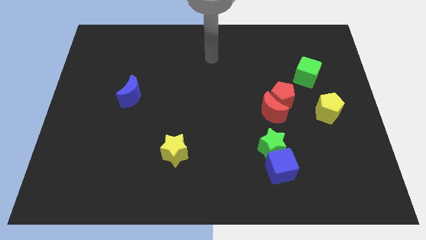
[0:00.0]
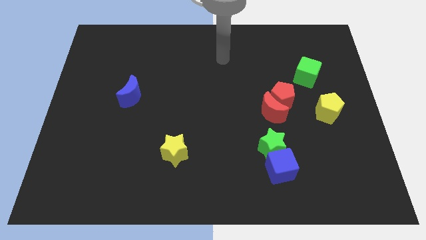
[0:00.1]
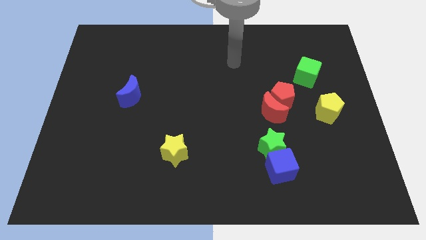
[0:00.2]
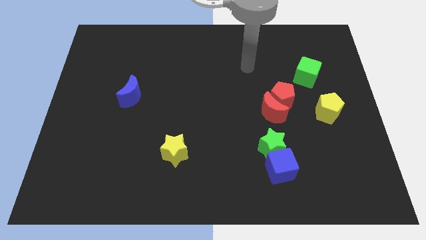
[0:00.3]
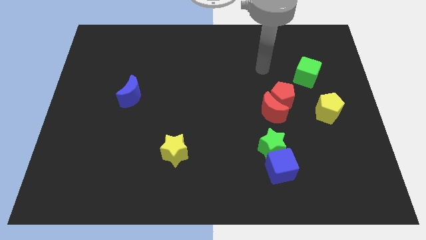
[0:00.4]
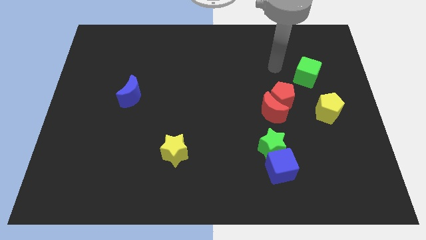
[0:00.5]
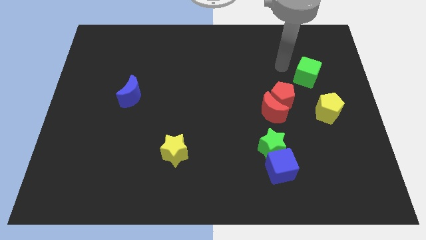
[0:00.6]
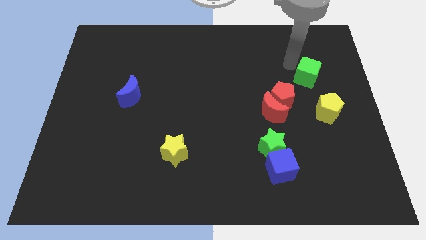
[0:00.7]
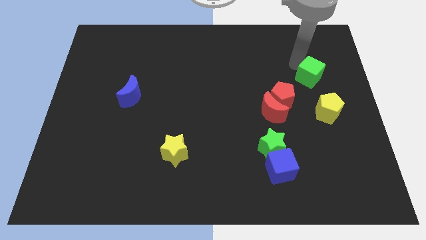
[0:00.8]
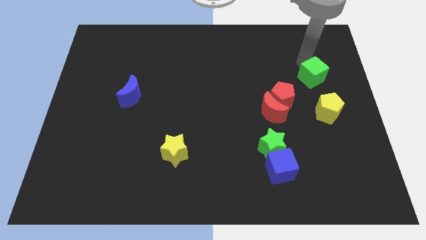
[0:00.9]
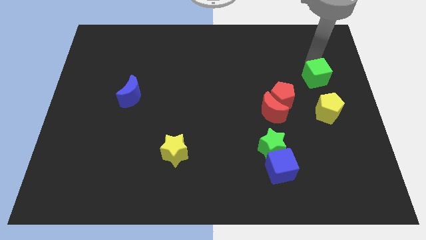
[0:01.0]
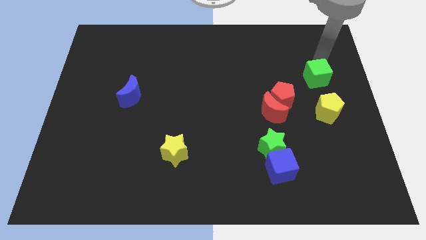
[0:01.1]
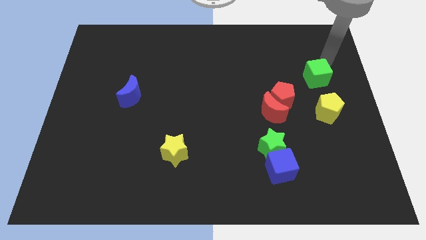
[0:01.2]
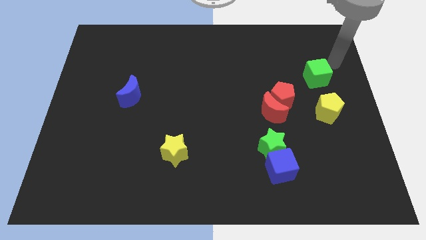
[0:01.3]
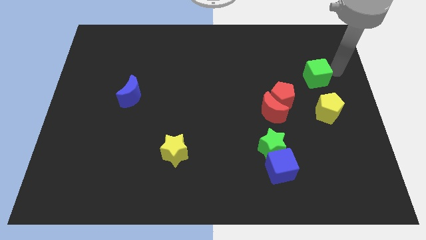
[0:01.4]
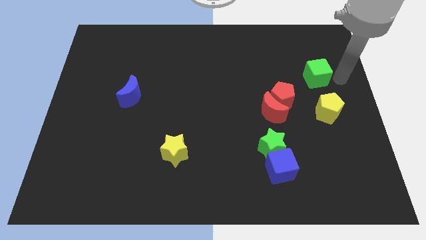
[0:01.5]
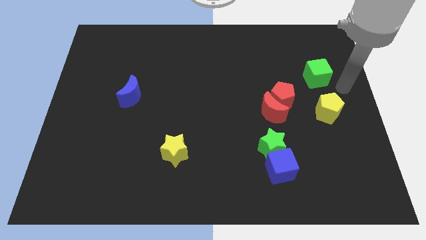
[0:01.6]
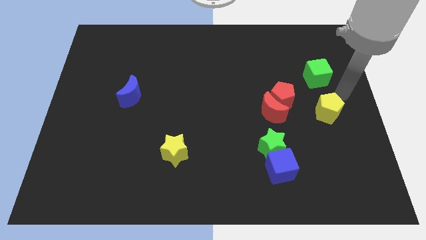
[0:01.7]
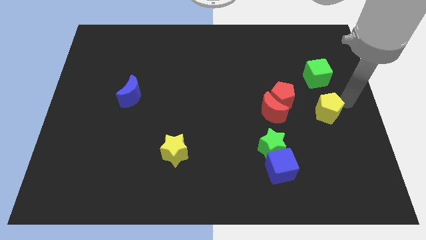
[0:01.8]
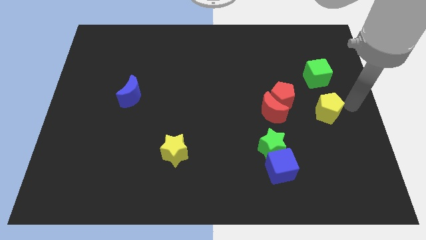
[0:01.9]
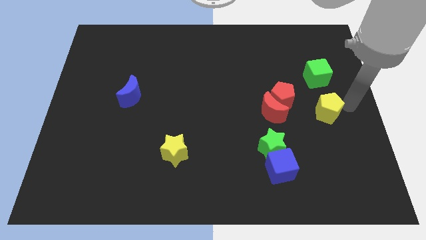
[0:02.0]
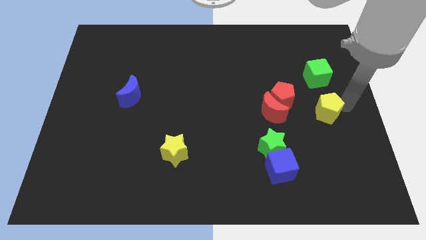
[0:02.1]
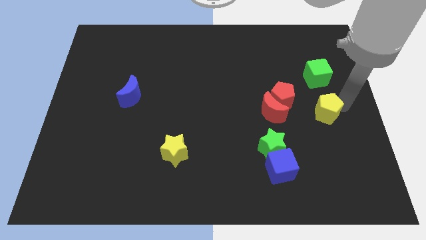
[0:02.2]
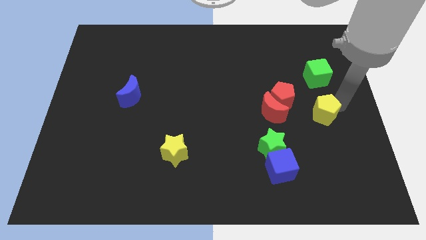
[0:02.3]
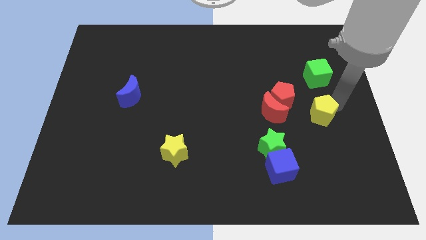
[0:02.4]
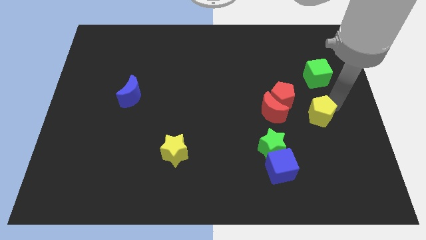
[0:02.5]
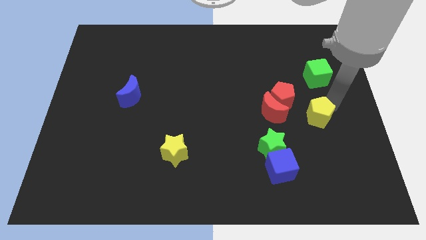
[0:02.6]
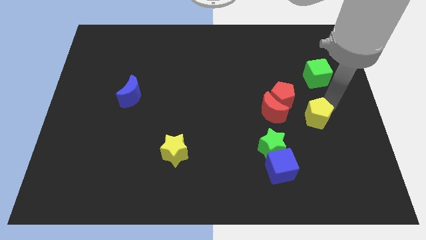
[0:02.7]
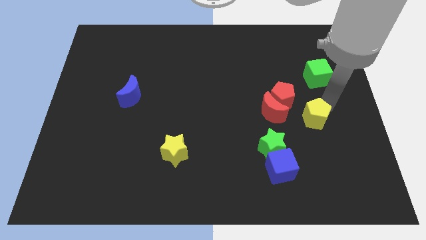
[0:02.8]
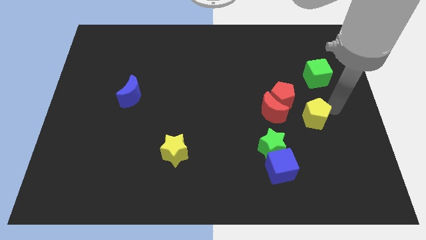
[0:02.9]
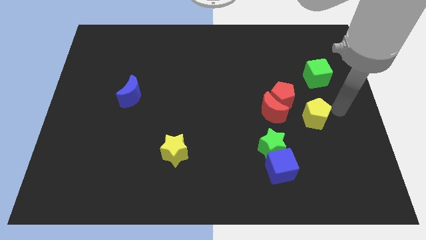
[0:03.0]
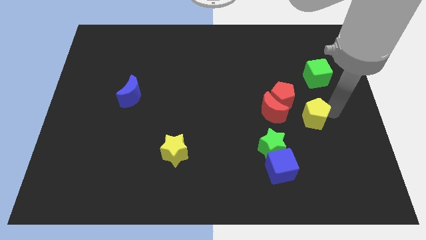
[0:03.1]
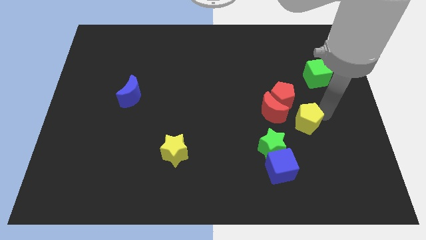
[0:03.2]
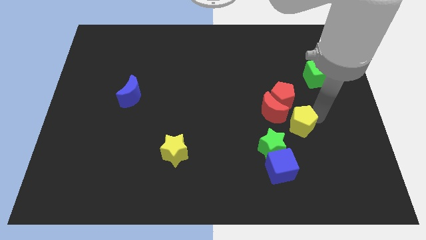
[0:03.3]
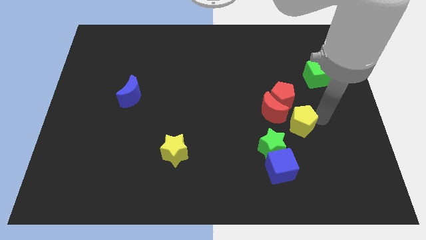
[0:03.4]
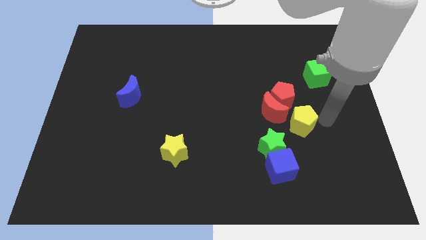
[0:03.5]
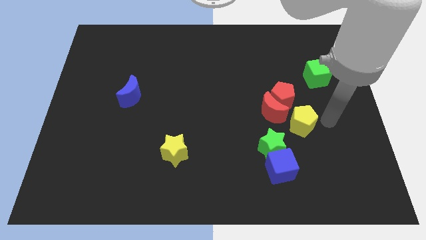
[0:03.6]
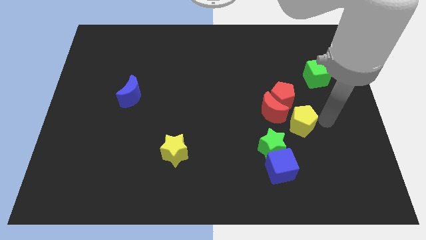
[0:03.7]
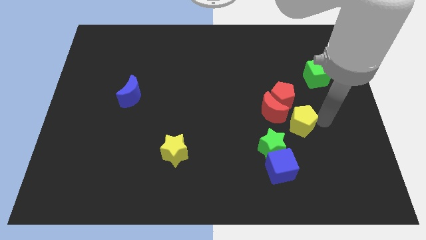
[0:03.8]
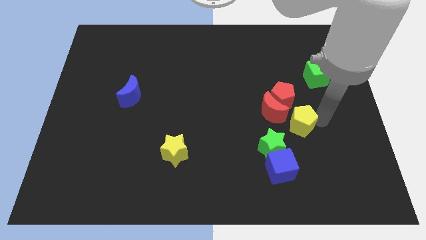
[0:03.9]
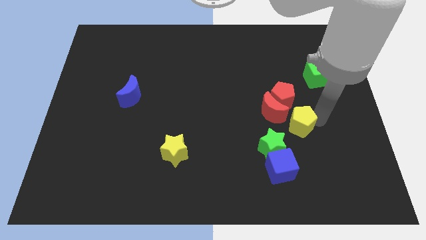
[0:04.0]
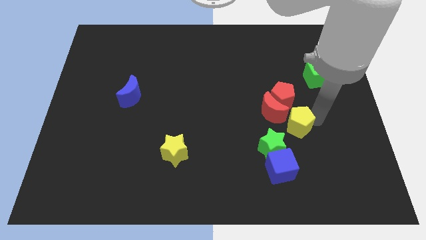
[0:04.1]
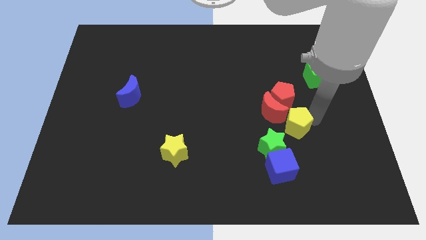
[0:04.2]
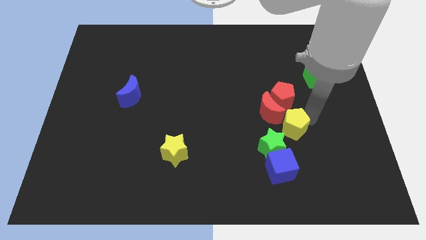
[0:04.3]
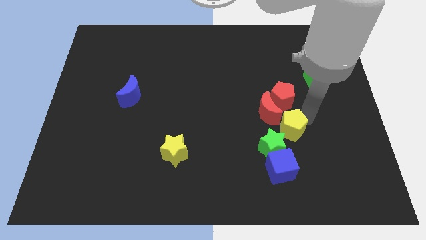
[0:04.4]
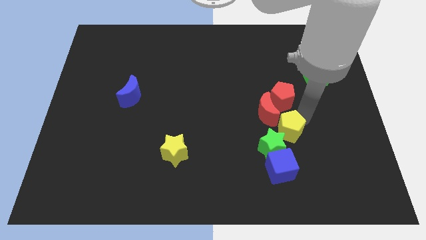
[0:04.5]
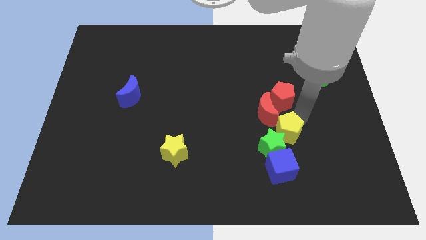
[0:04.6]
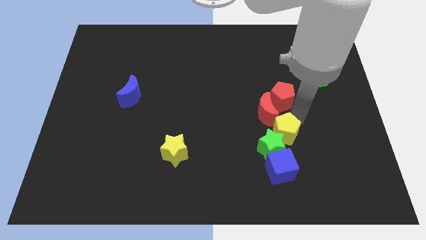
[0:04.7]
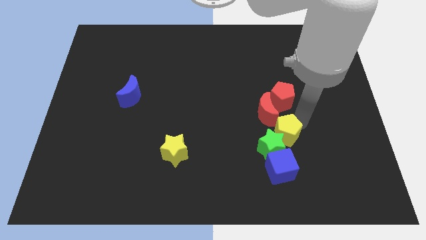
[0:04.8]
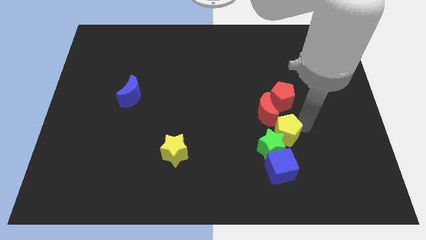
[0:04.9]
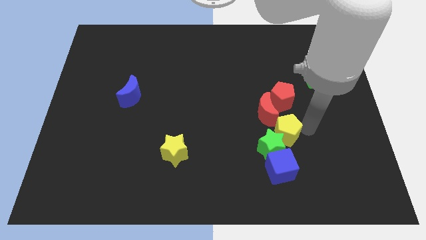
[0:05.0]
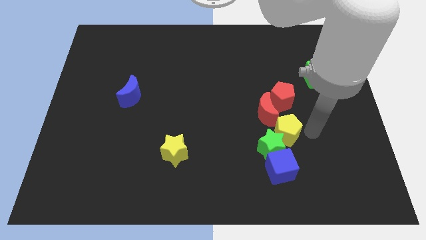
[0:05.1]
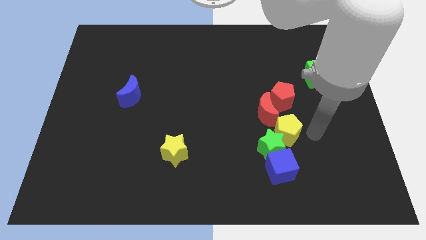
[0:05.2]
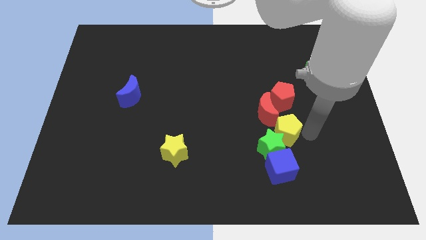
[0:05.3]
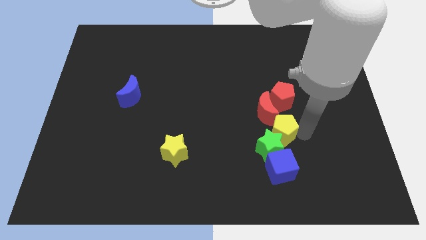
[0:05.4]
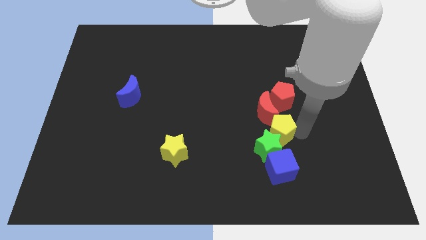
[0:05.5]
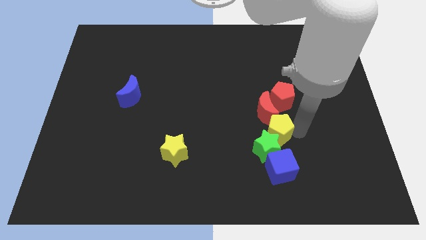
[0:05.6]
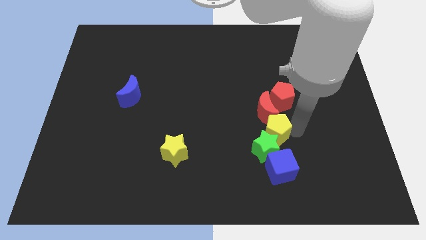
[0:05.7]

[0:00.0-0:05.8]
push the yellow pentagon to the bottom left side of the red pentagon

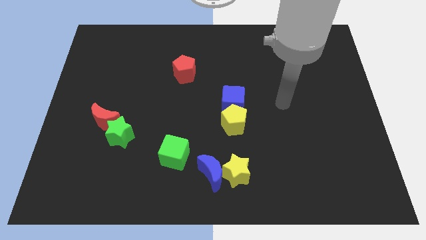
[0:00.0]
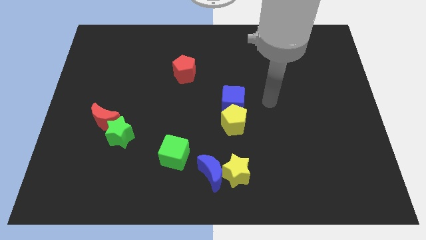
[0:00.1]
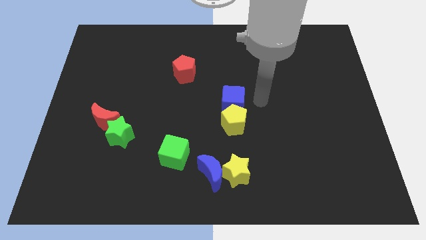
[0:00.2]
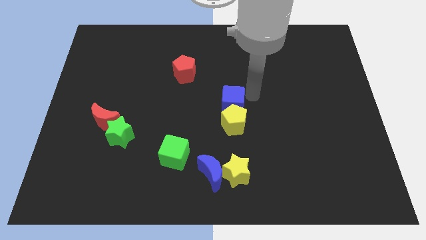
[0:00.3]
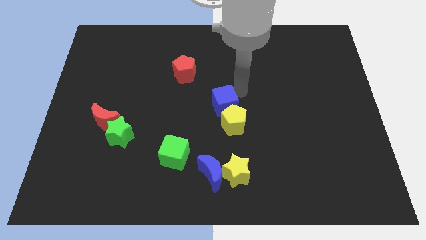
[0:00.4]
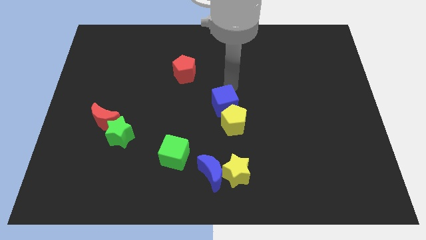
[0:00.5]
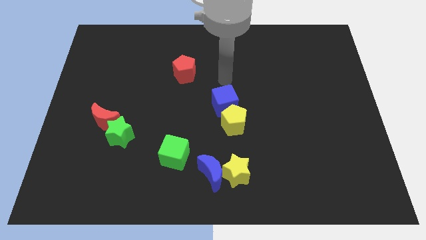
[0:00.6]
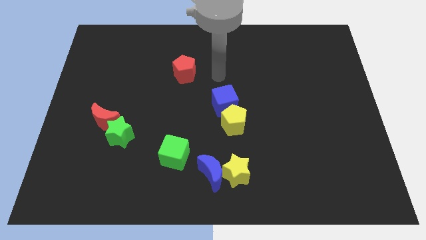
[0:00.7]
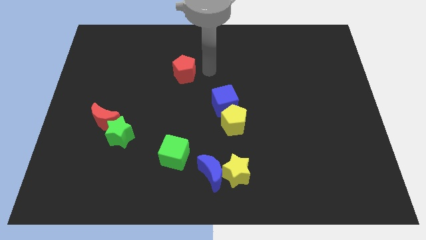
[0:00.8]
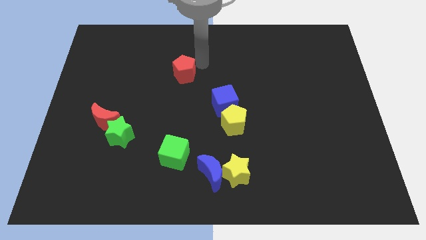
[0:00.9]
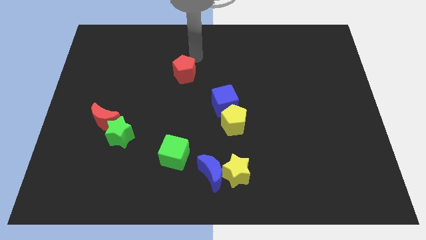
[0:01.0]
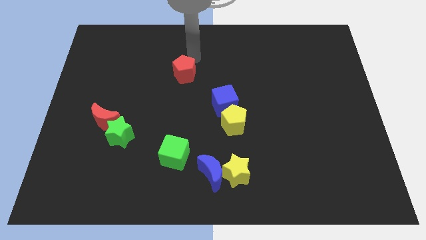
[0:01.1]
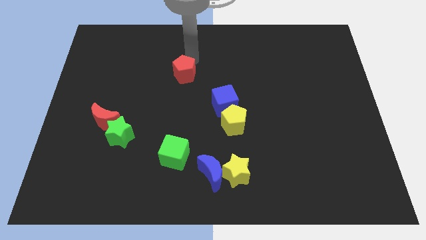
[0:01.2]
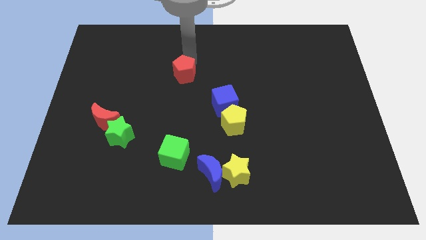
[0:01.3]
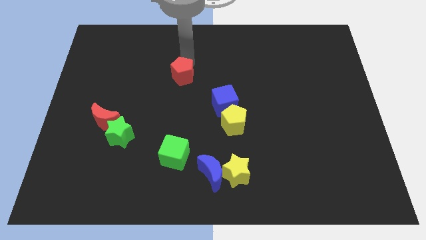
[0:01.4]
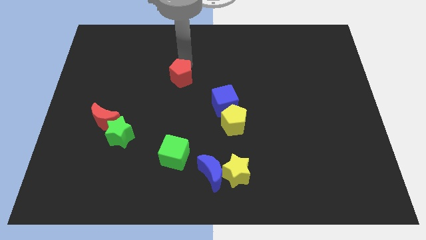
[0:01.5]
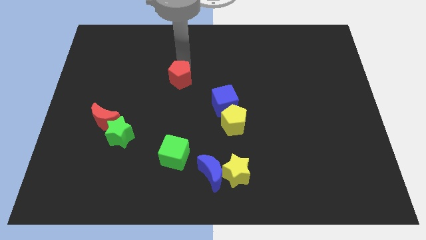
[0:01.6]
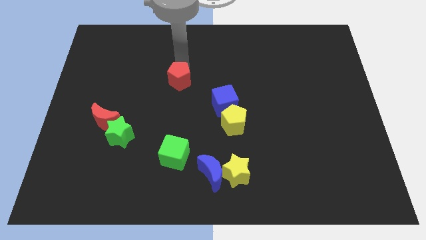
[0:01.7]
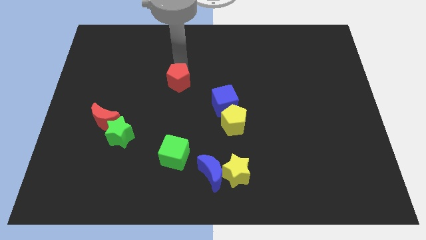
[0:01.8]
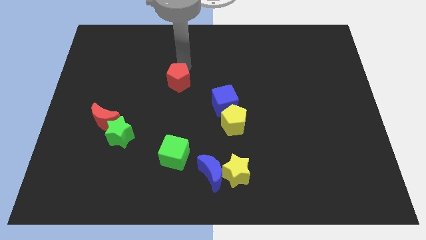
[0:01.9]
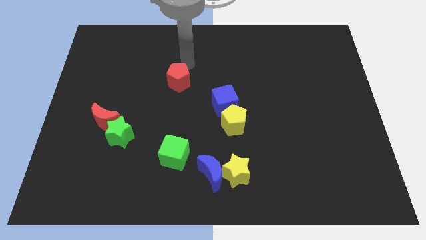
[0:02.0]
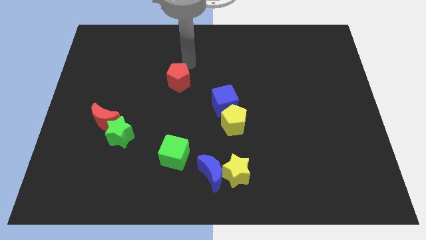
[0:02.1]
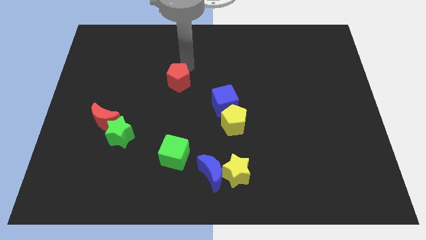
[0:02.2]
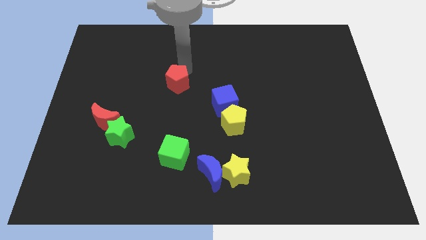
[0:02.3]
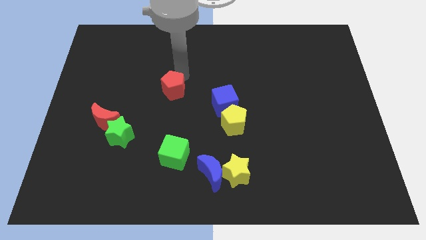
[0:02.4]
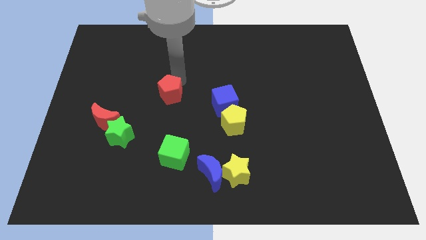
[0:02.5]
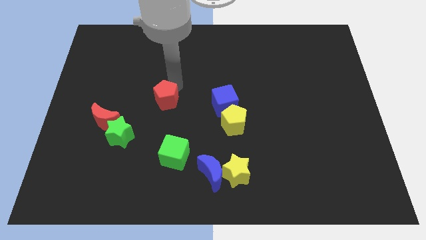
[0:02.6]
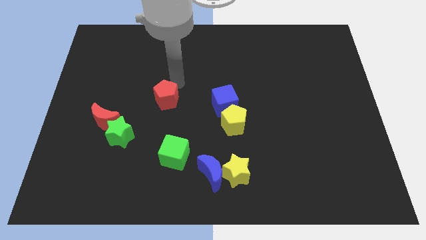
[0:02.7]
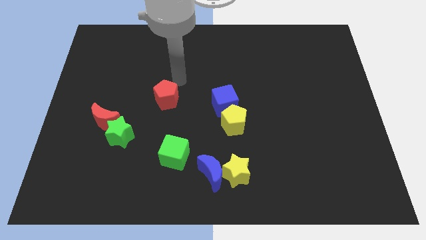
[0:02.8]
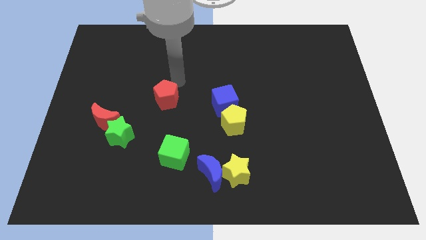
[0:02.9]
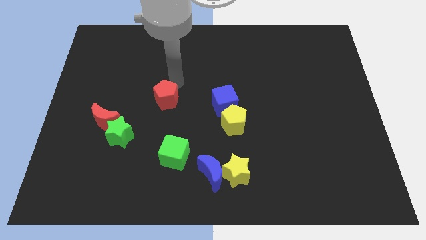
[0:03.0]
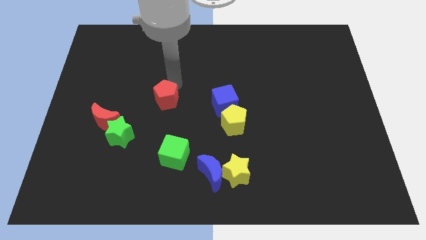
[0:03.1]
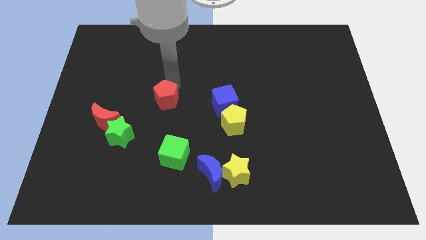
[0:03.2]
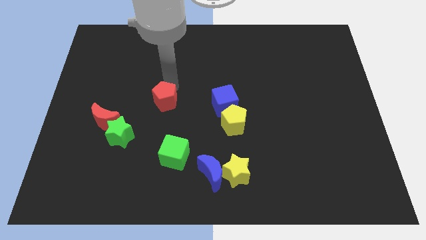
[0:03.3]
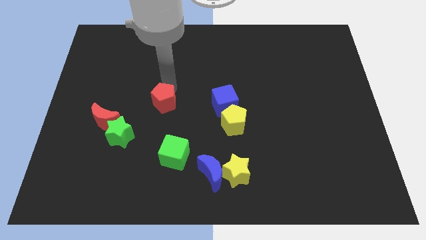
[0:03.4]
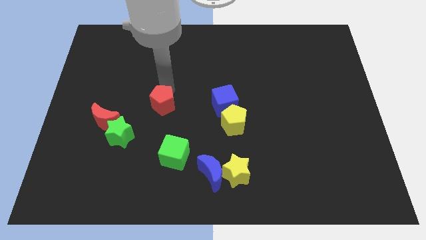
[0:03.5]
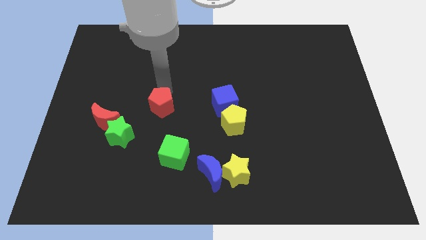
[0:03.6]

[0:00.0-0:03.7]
put the red pentagon to the right side of the red moon
